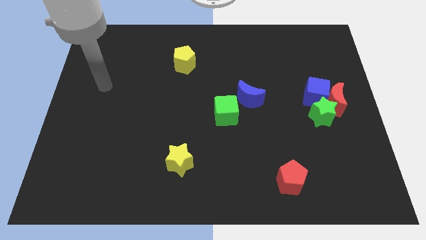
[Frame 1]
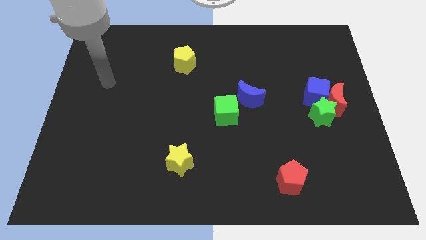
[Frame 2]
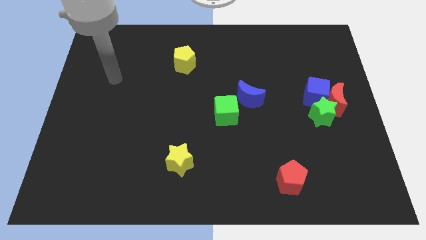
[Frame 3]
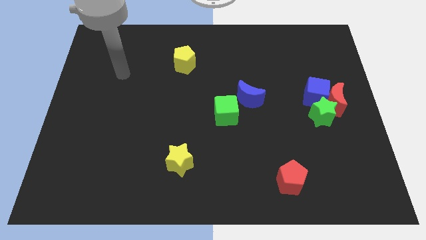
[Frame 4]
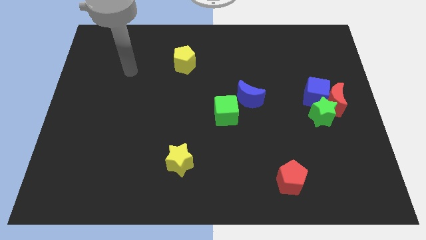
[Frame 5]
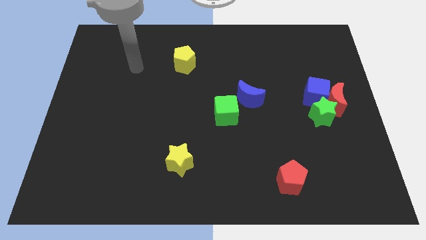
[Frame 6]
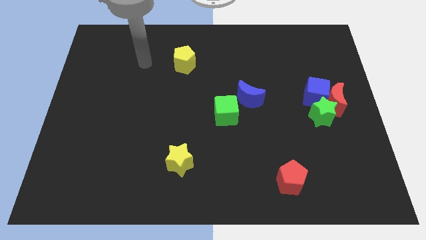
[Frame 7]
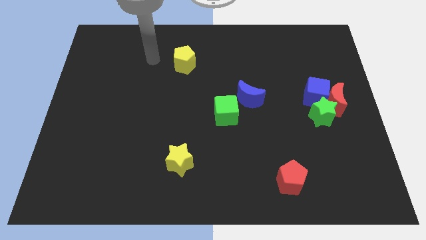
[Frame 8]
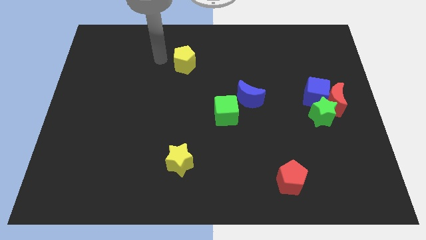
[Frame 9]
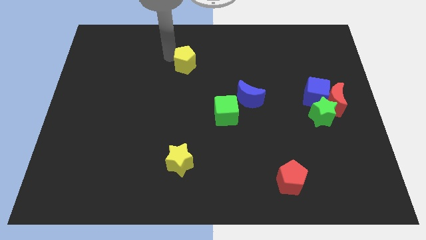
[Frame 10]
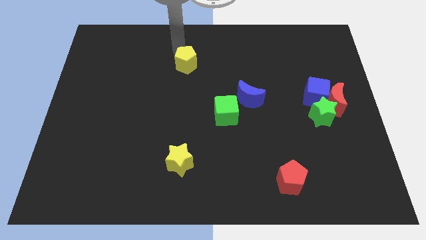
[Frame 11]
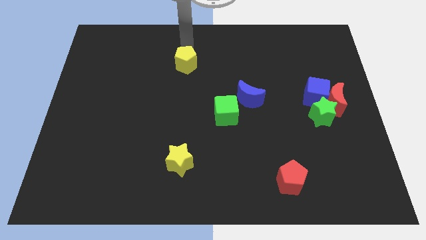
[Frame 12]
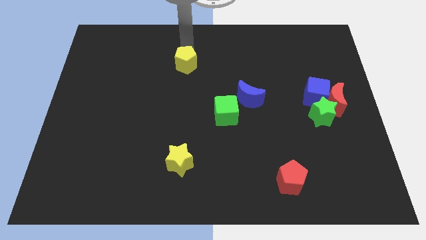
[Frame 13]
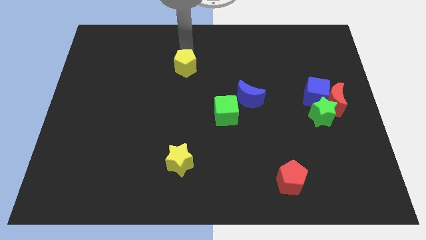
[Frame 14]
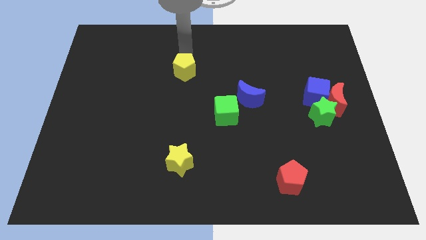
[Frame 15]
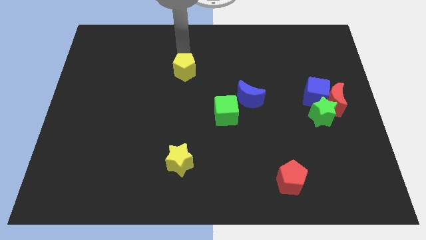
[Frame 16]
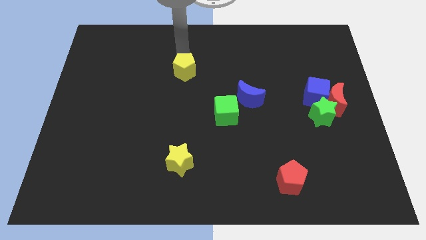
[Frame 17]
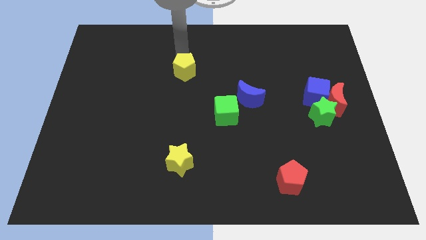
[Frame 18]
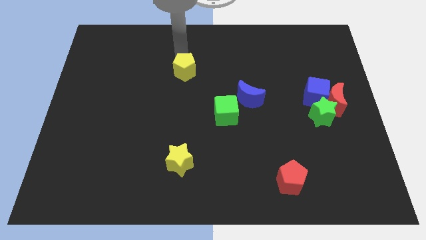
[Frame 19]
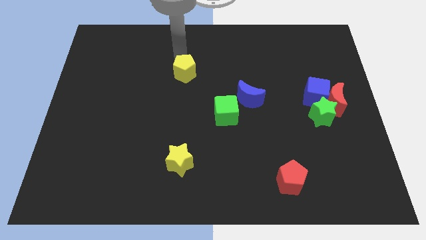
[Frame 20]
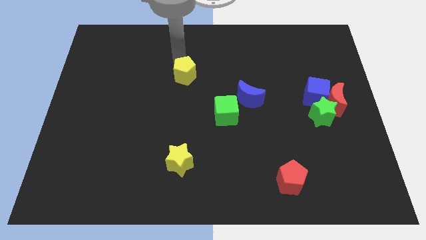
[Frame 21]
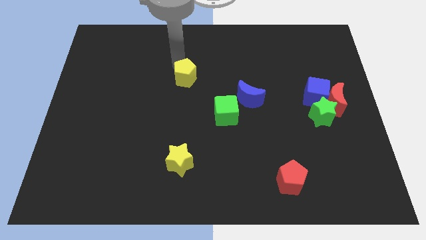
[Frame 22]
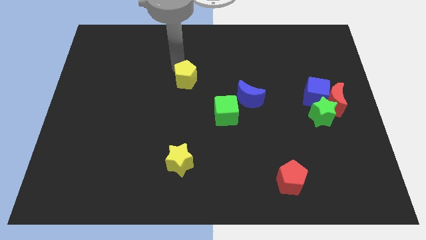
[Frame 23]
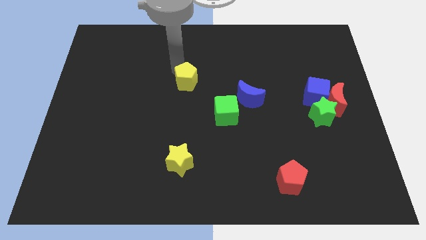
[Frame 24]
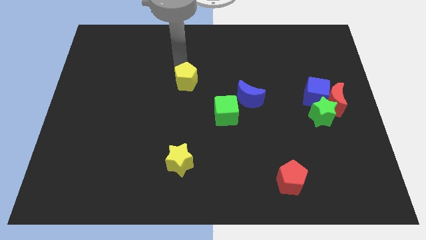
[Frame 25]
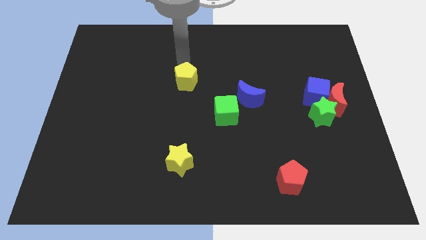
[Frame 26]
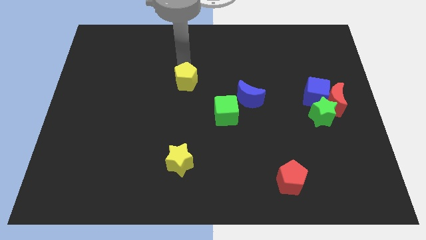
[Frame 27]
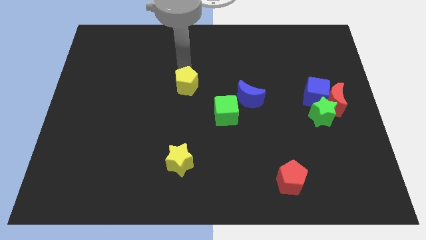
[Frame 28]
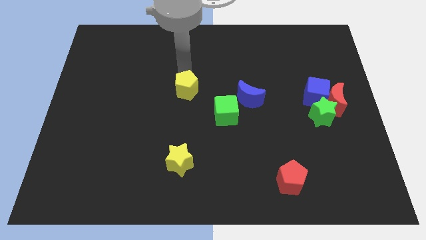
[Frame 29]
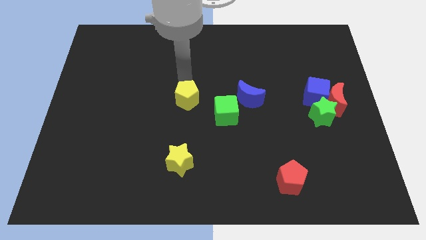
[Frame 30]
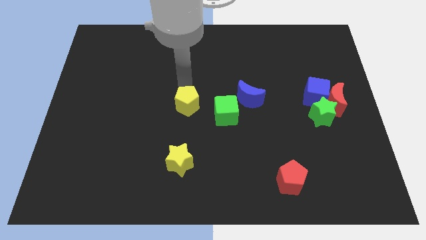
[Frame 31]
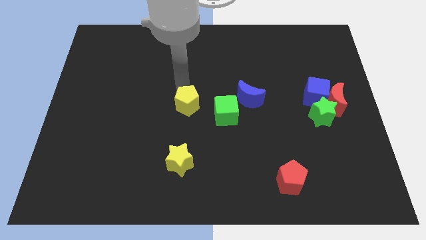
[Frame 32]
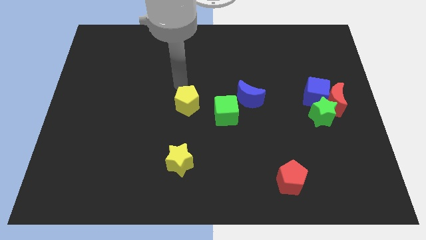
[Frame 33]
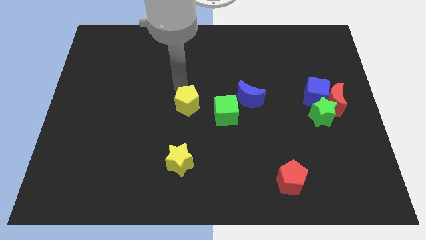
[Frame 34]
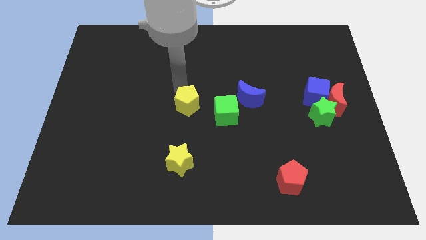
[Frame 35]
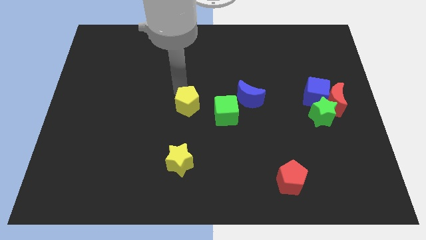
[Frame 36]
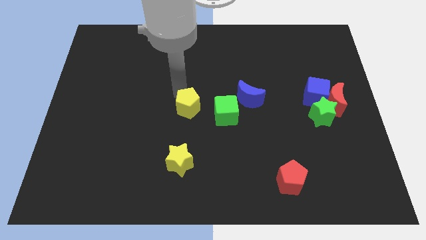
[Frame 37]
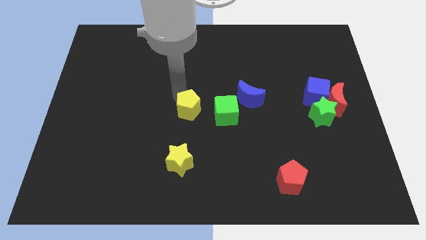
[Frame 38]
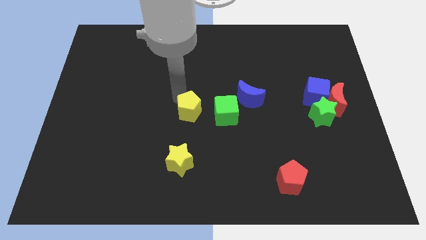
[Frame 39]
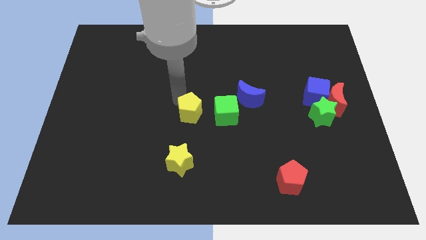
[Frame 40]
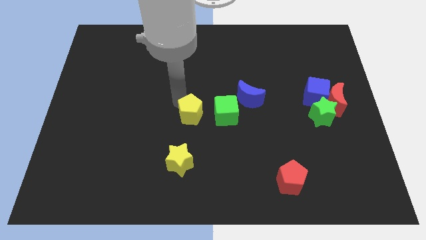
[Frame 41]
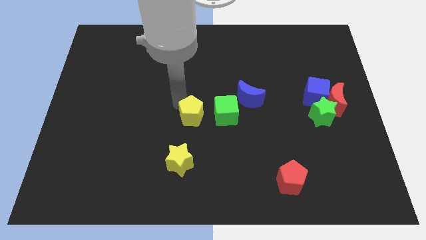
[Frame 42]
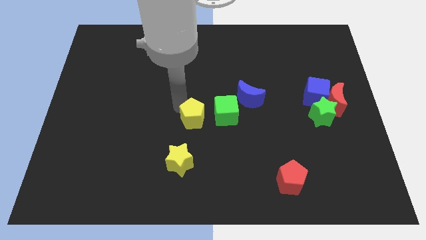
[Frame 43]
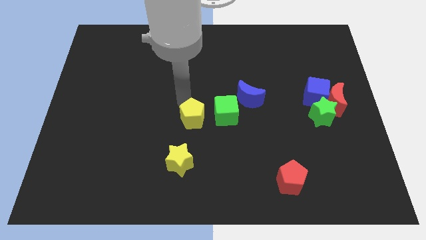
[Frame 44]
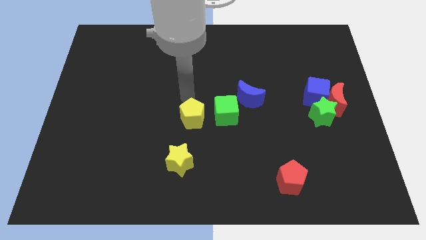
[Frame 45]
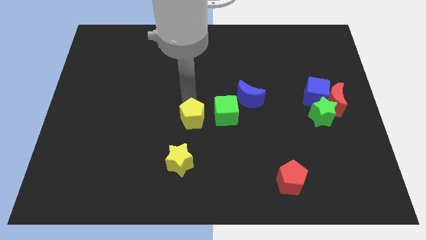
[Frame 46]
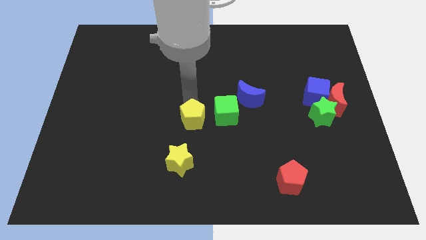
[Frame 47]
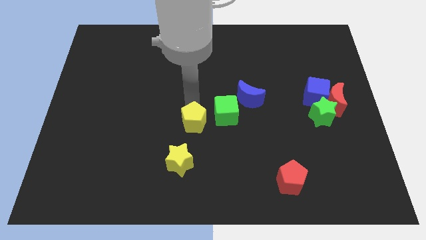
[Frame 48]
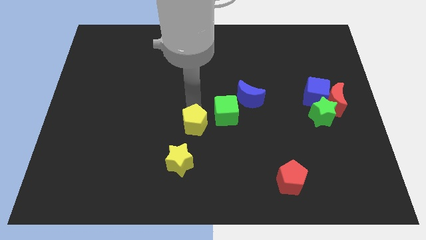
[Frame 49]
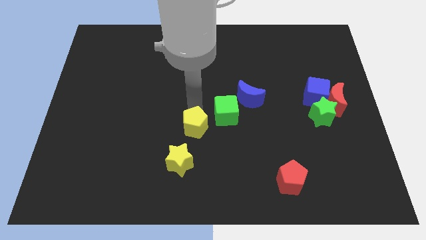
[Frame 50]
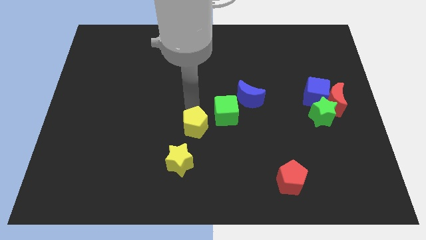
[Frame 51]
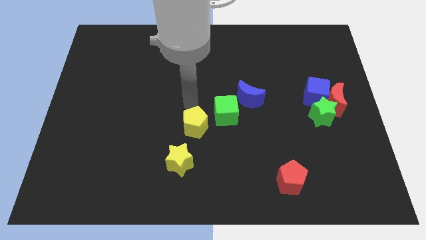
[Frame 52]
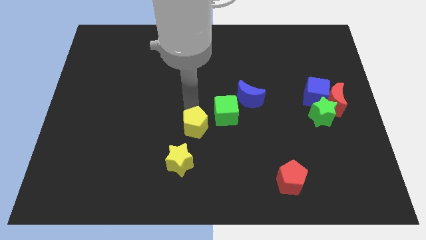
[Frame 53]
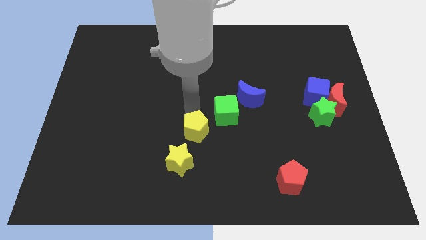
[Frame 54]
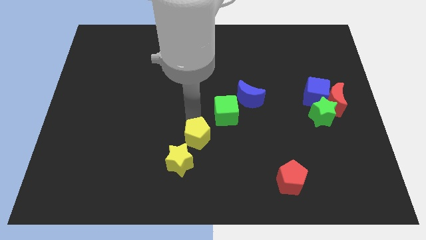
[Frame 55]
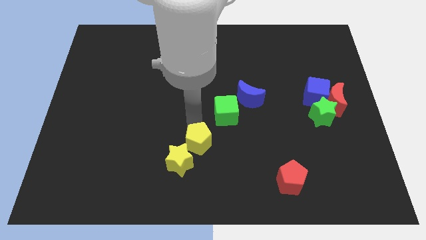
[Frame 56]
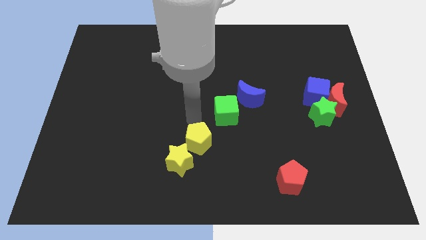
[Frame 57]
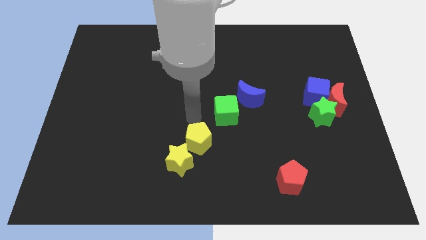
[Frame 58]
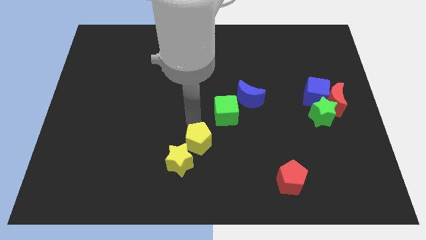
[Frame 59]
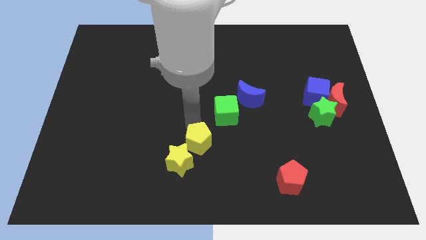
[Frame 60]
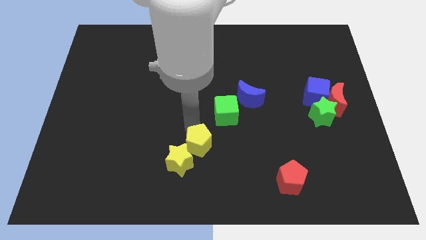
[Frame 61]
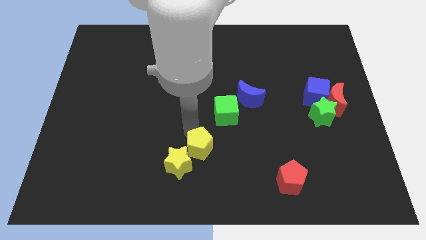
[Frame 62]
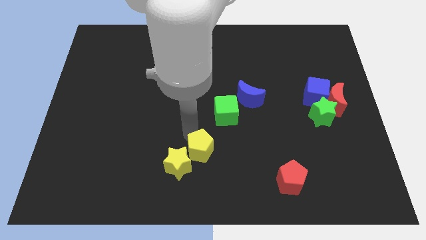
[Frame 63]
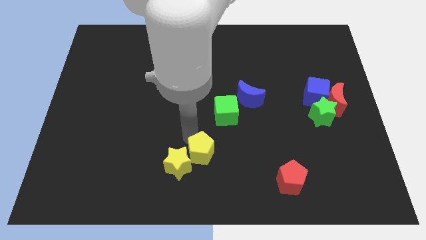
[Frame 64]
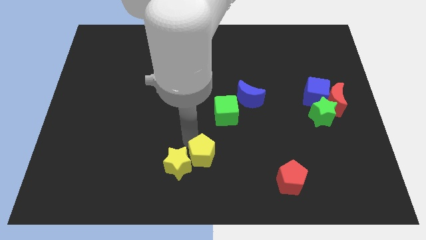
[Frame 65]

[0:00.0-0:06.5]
slide the yellow pentagon to the bottom side
